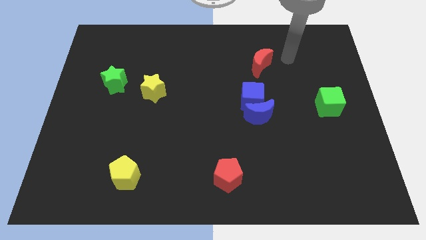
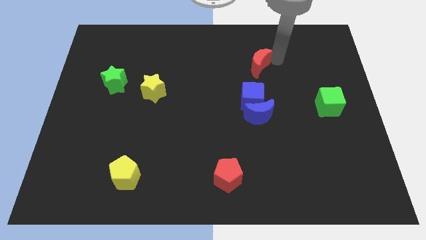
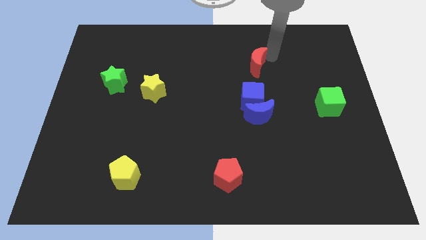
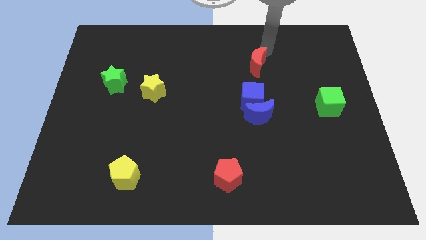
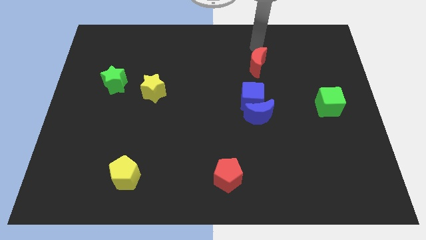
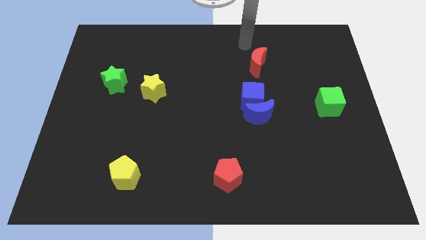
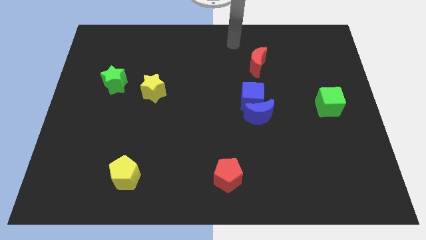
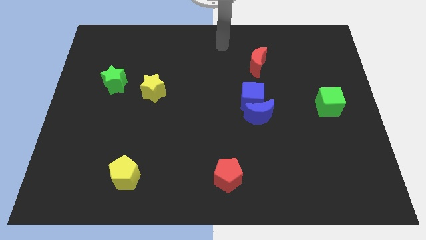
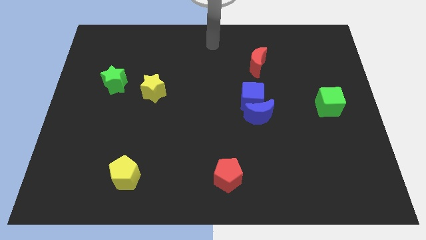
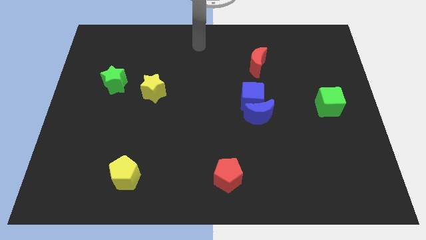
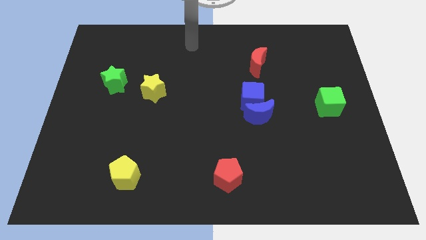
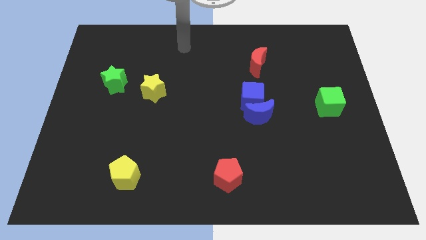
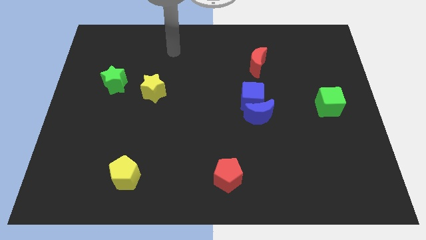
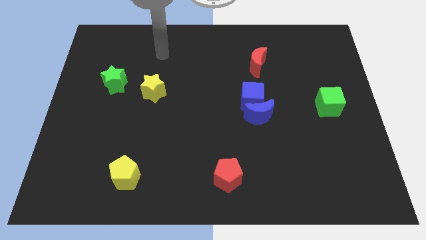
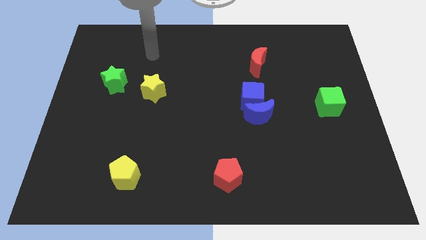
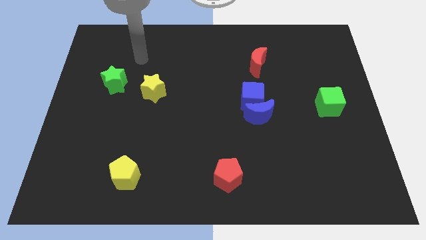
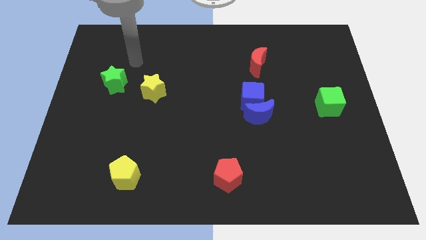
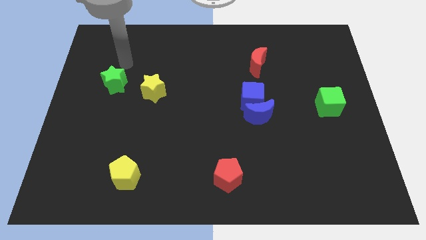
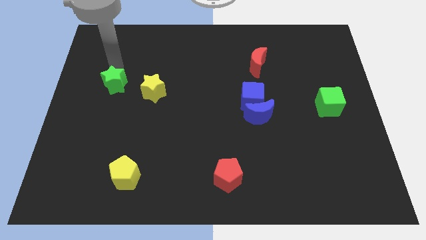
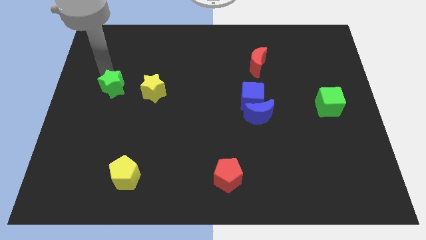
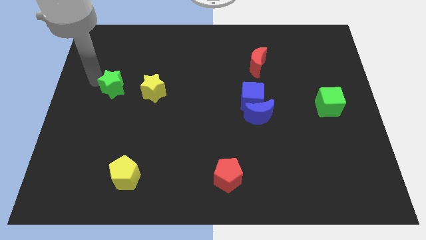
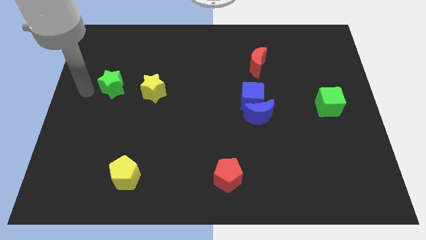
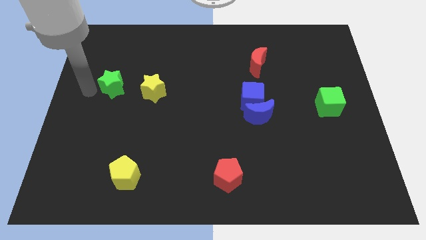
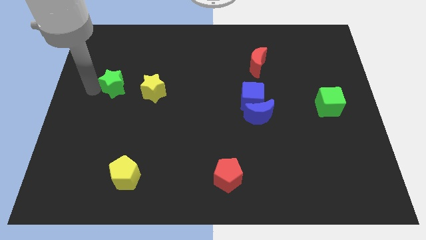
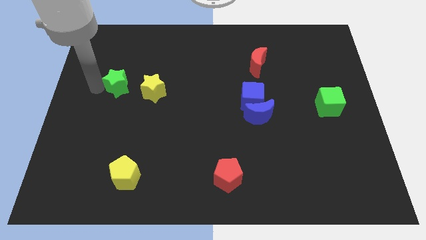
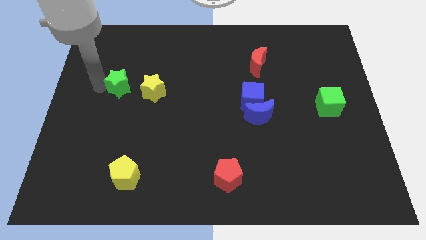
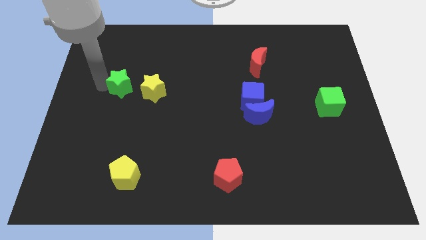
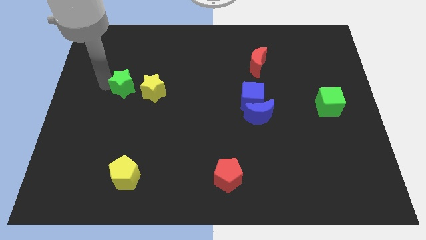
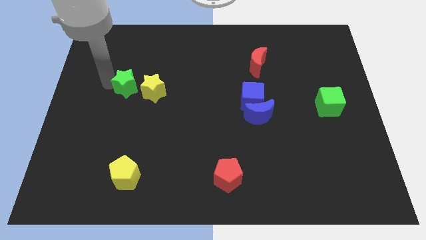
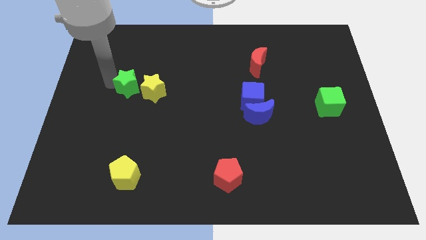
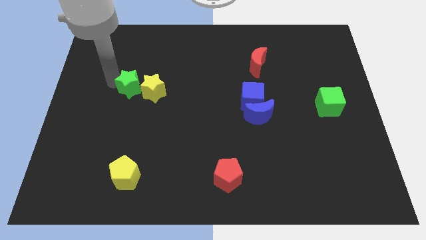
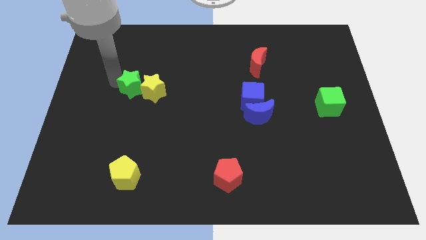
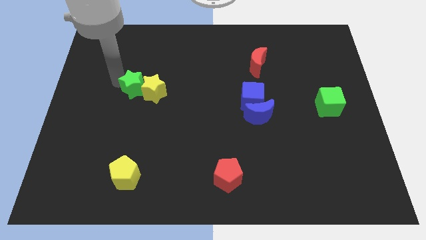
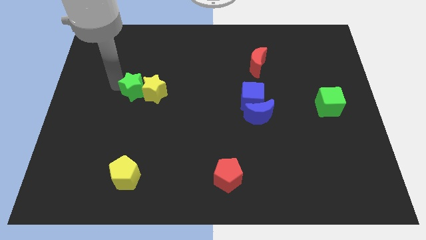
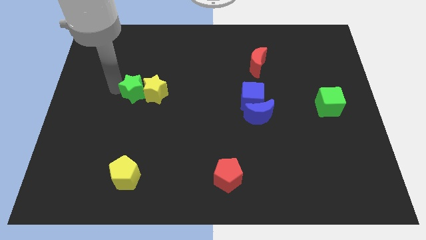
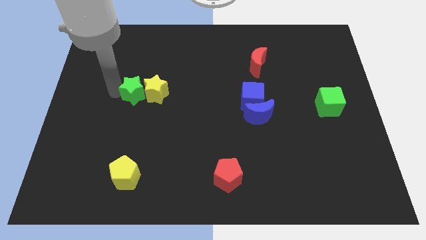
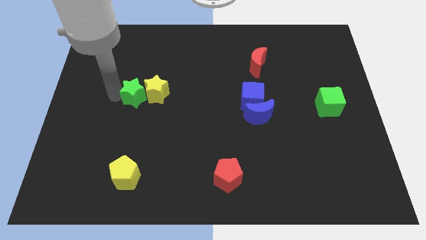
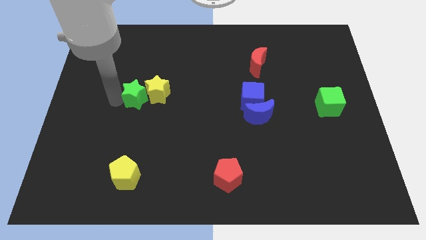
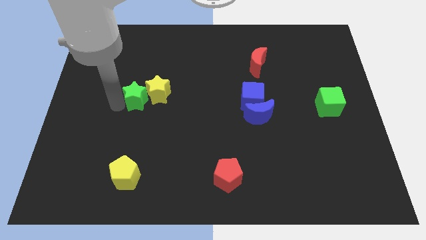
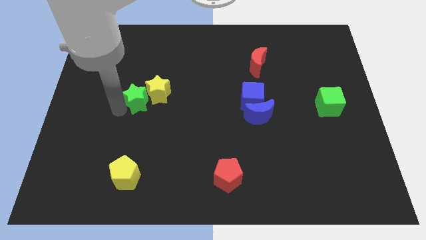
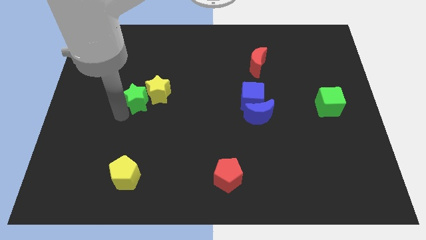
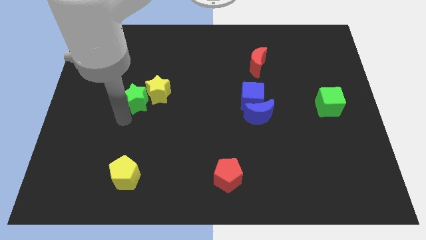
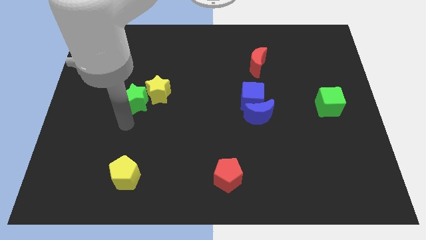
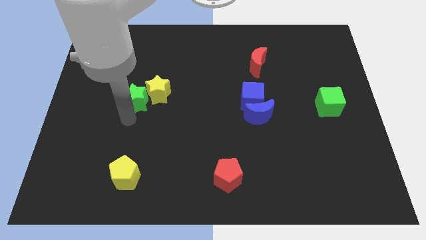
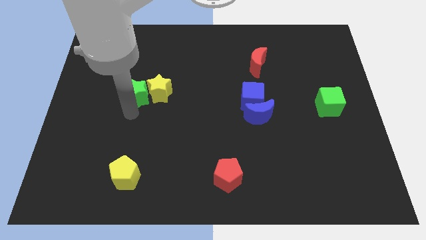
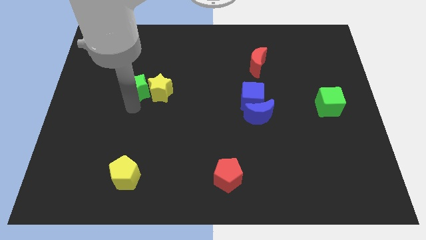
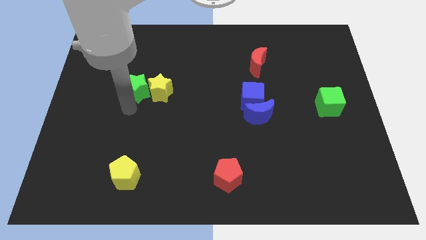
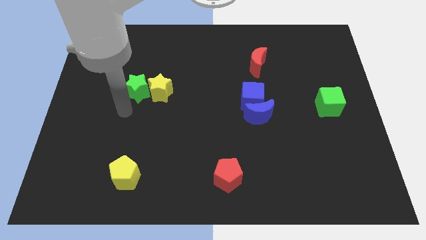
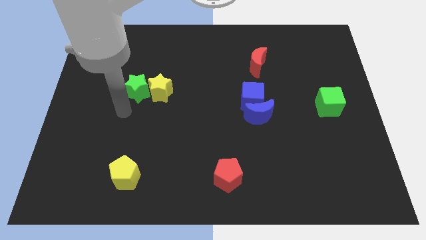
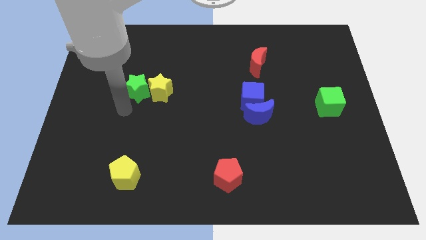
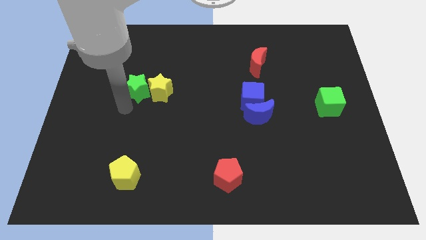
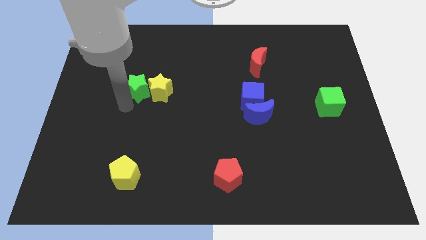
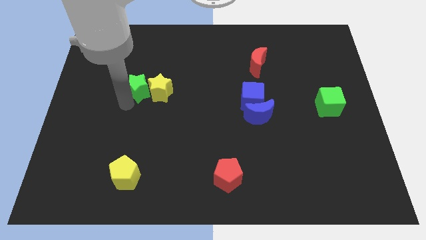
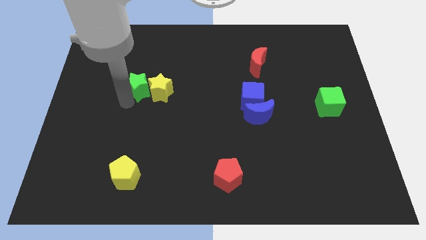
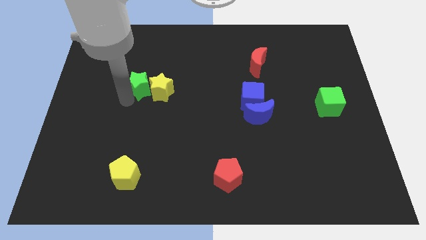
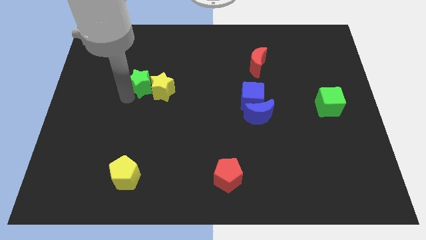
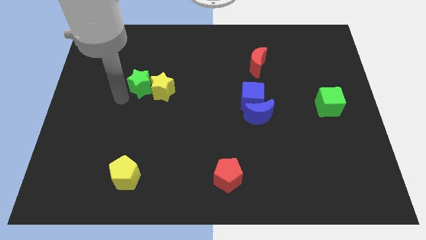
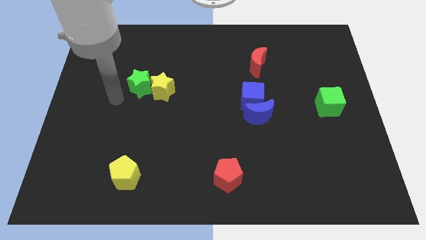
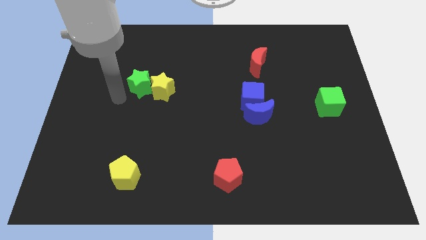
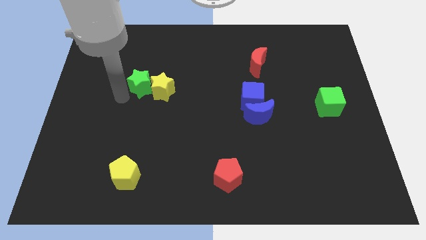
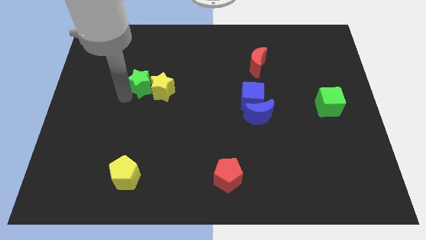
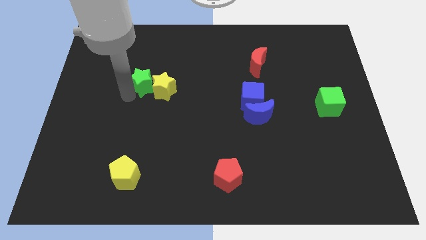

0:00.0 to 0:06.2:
slide the green star to the right a little bit

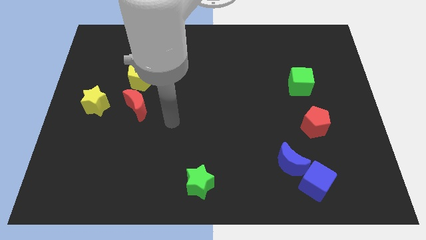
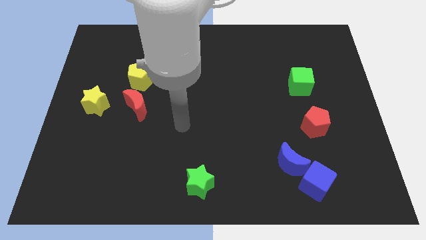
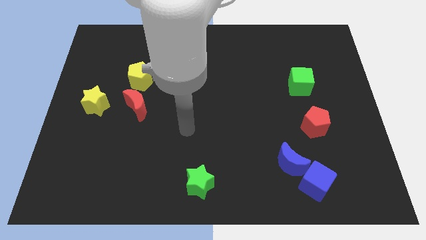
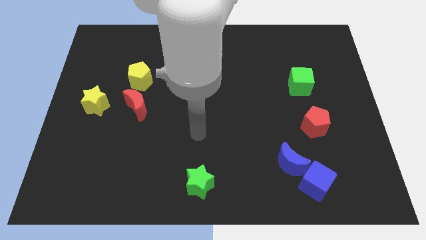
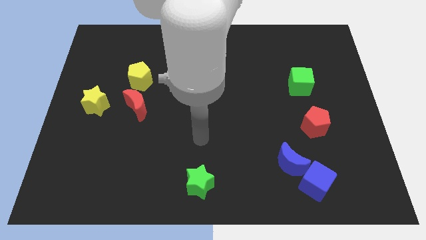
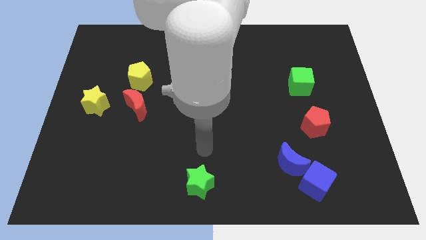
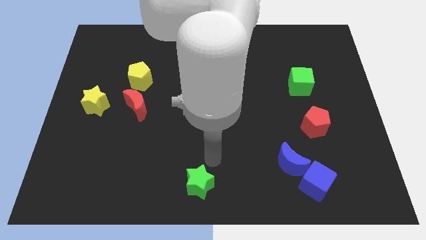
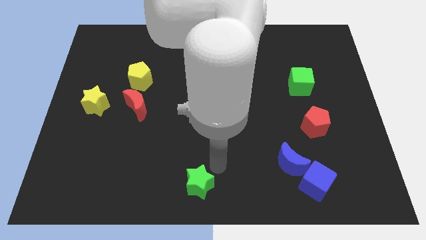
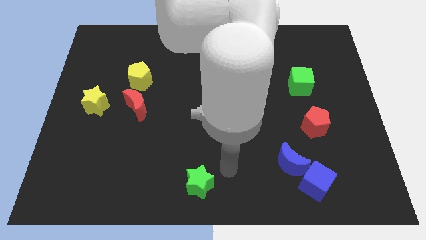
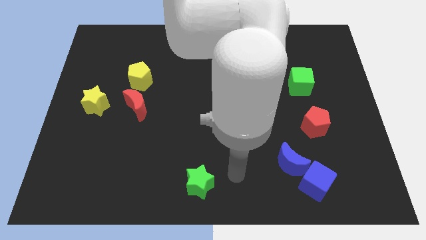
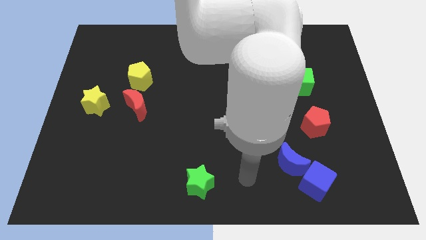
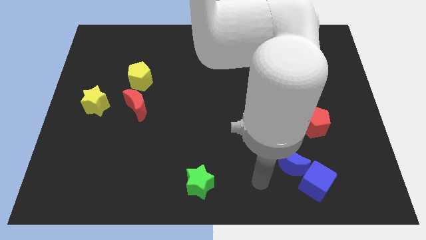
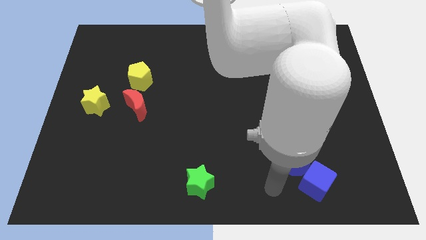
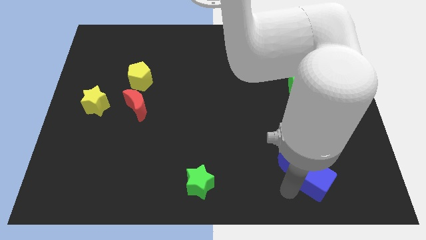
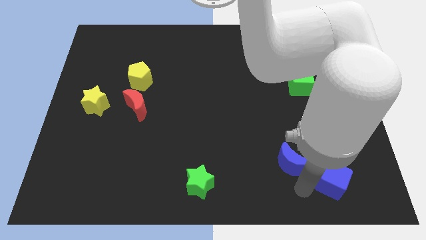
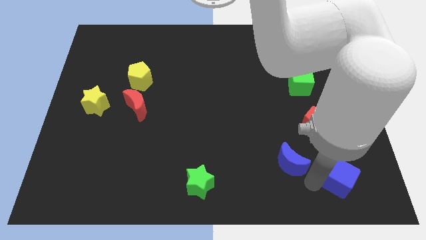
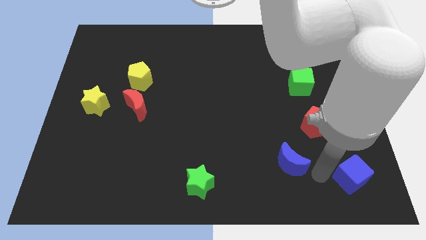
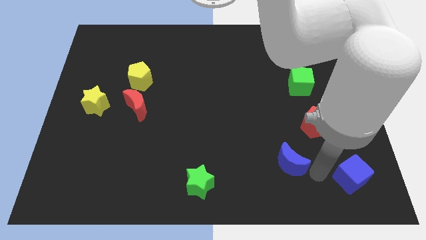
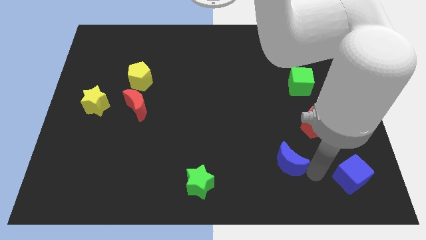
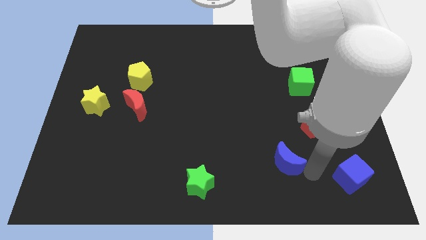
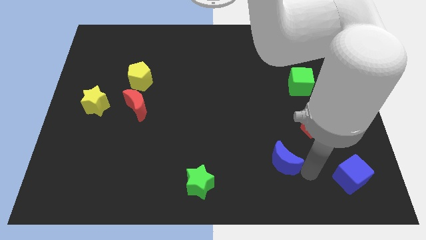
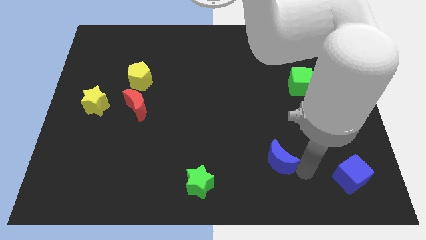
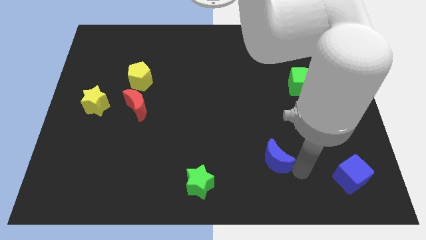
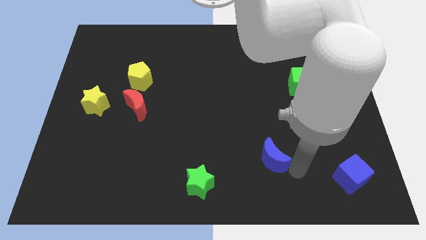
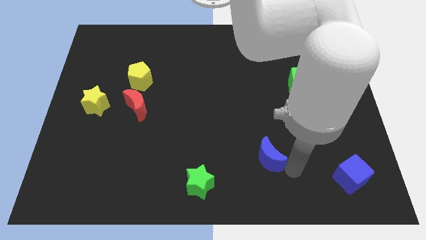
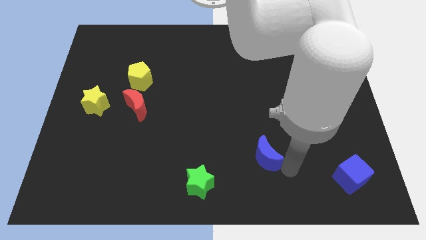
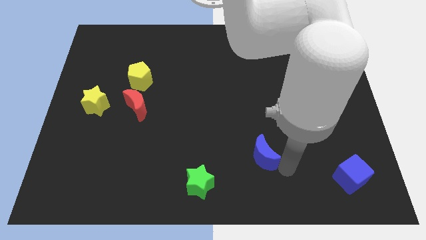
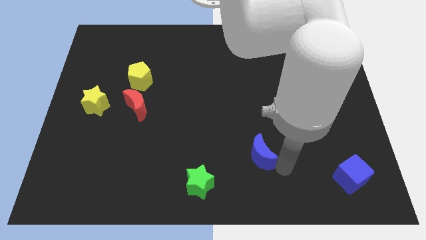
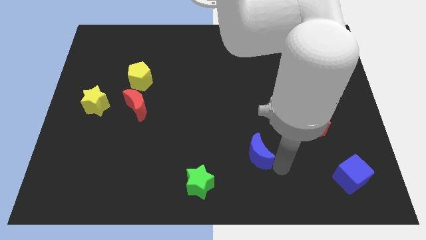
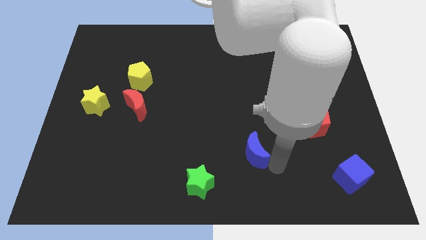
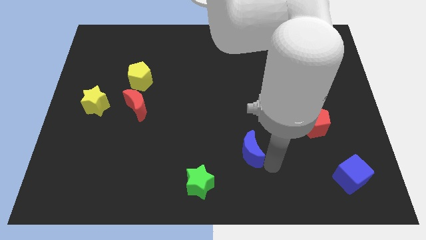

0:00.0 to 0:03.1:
slightly move the blue moon diagonally up and to the left
